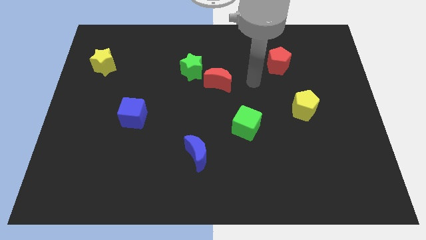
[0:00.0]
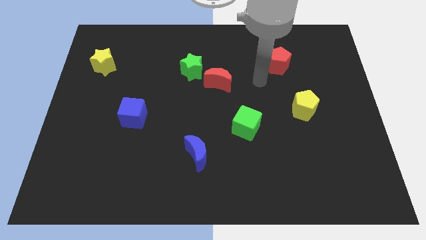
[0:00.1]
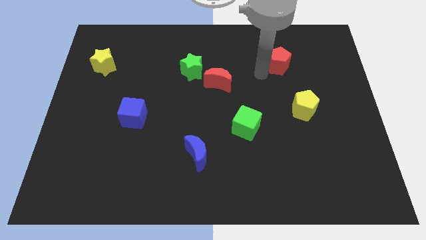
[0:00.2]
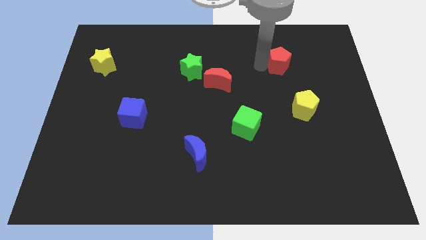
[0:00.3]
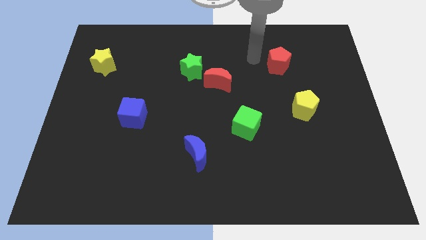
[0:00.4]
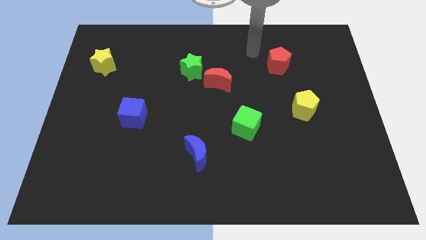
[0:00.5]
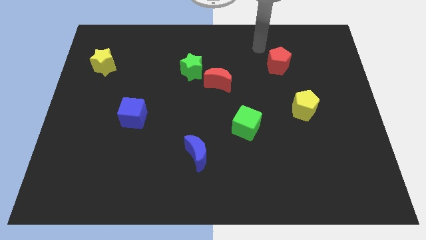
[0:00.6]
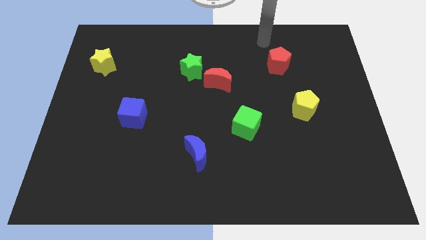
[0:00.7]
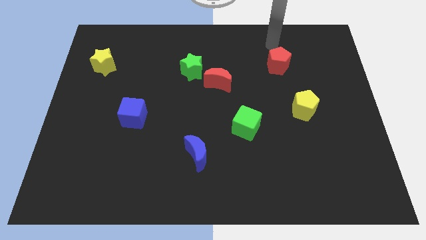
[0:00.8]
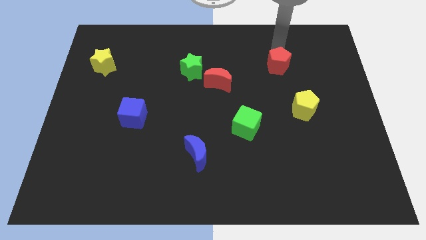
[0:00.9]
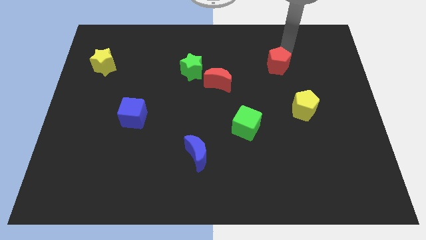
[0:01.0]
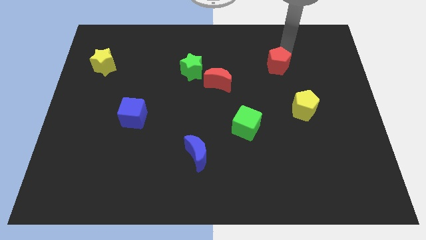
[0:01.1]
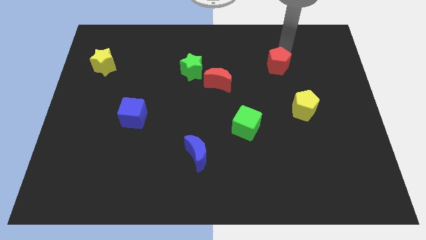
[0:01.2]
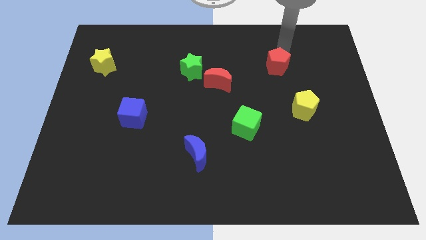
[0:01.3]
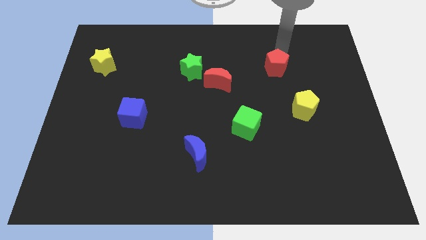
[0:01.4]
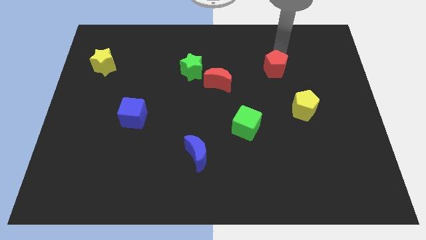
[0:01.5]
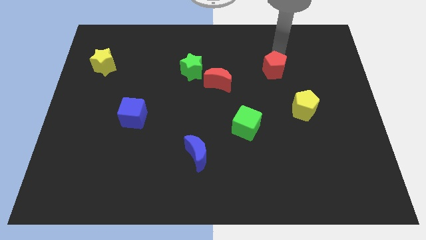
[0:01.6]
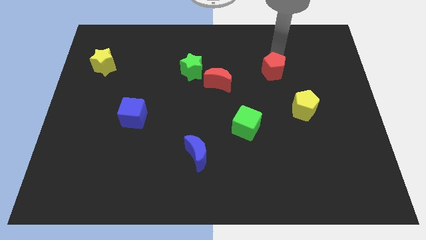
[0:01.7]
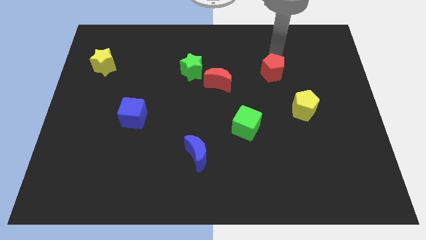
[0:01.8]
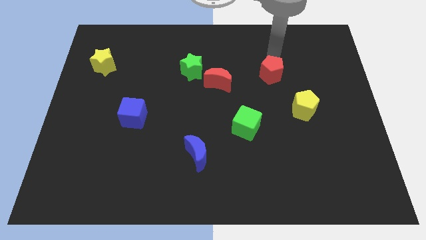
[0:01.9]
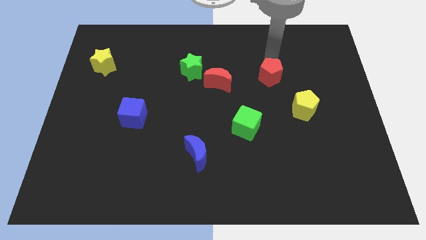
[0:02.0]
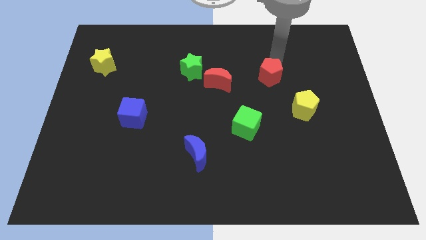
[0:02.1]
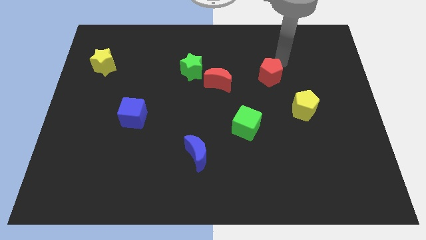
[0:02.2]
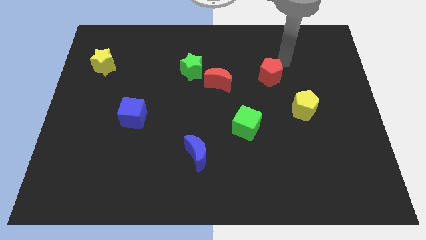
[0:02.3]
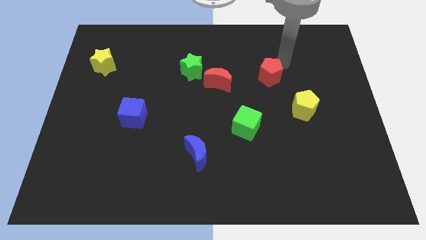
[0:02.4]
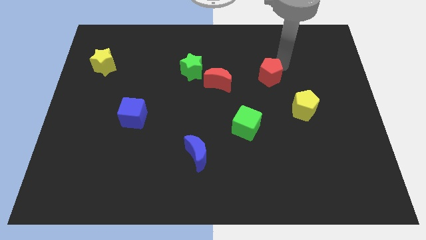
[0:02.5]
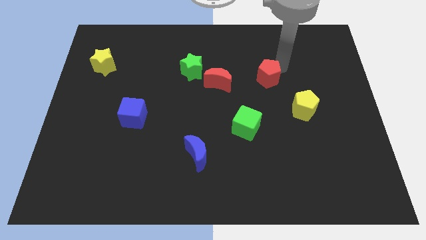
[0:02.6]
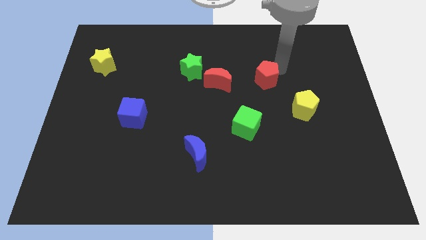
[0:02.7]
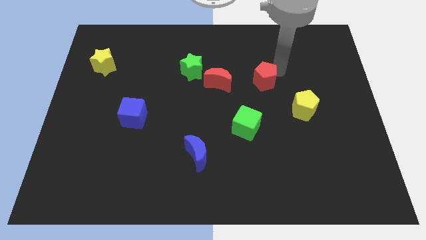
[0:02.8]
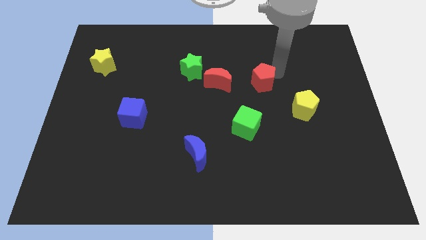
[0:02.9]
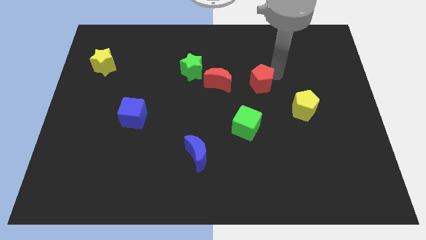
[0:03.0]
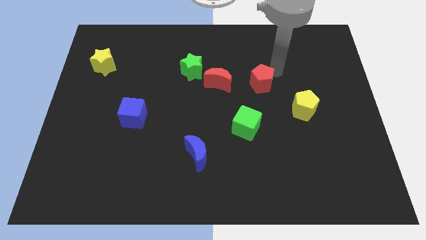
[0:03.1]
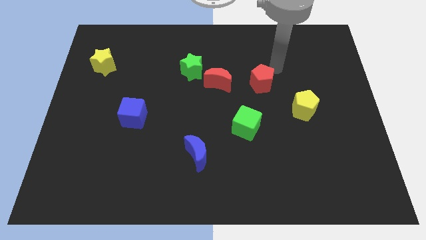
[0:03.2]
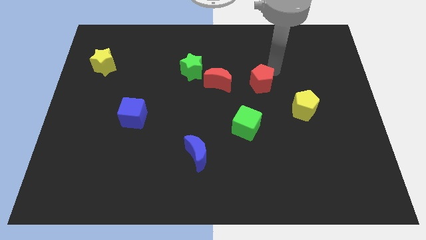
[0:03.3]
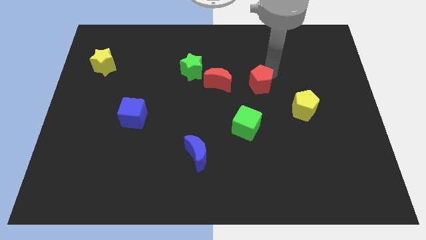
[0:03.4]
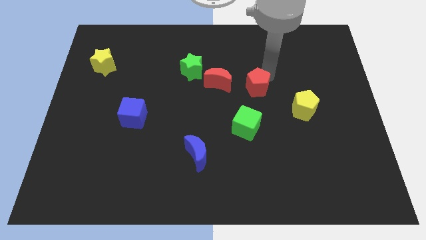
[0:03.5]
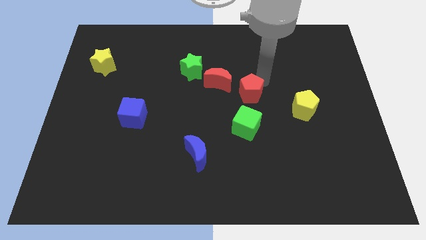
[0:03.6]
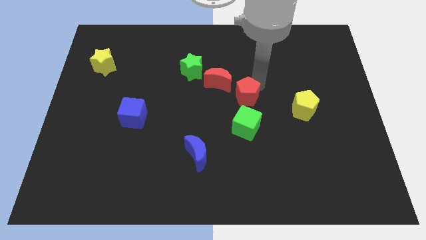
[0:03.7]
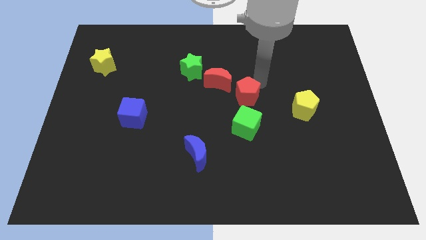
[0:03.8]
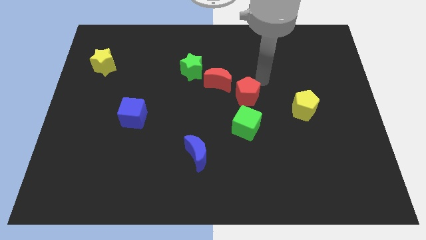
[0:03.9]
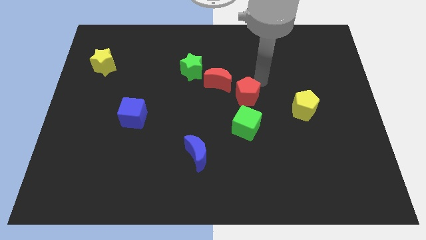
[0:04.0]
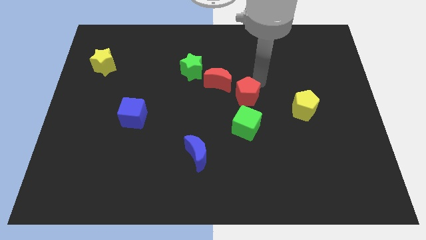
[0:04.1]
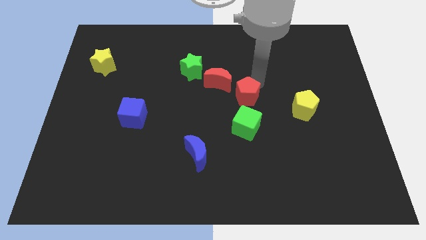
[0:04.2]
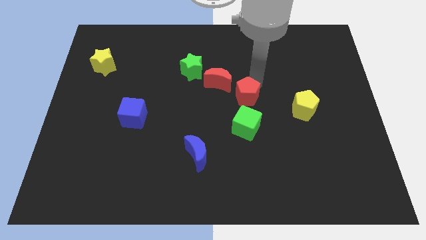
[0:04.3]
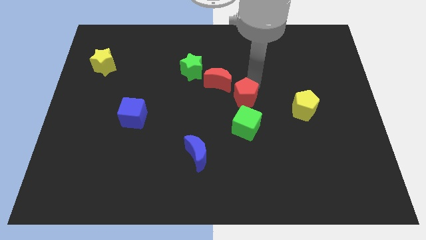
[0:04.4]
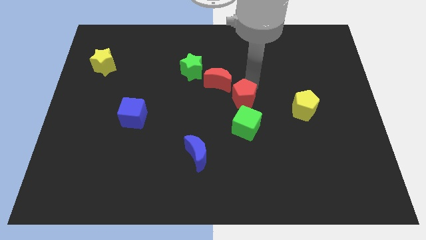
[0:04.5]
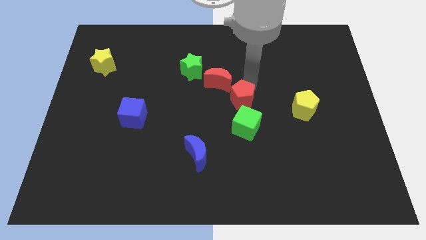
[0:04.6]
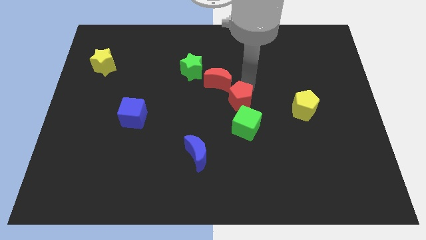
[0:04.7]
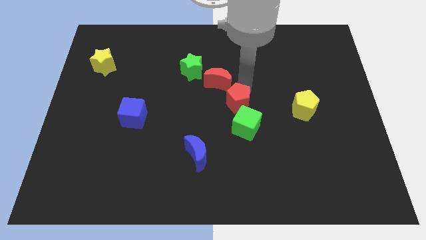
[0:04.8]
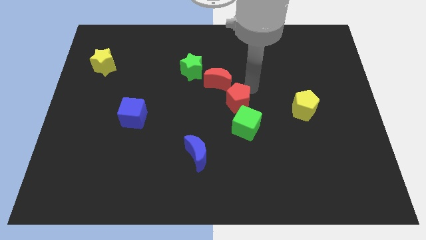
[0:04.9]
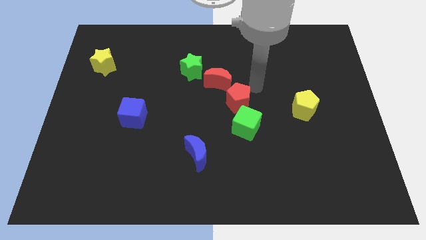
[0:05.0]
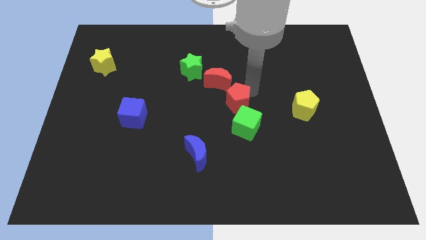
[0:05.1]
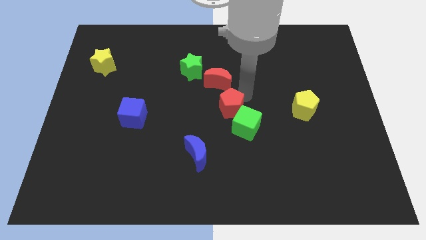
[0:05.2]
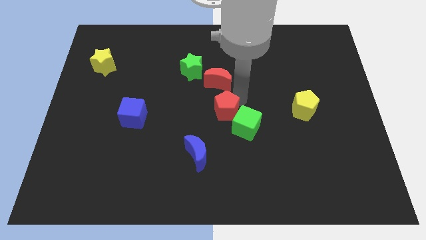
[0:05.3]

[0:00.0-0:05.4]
slide the red pentagon downwards and to the left

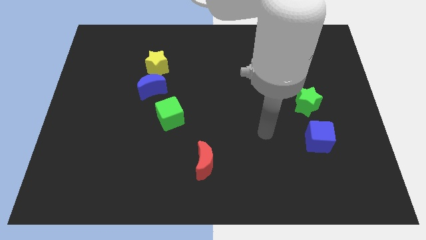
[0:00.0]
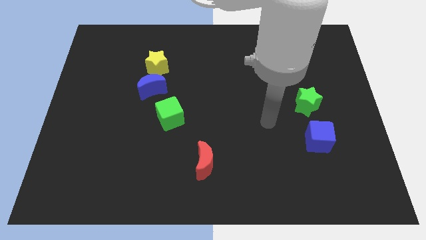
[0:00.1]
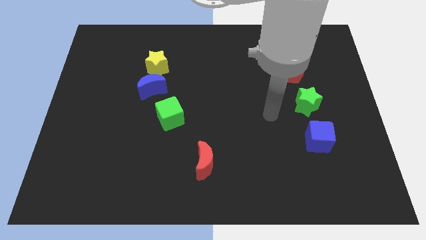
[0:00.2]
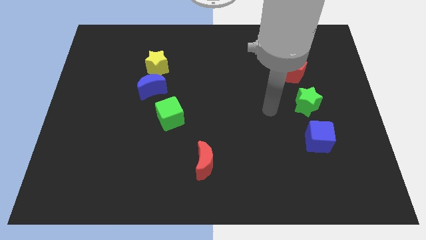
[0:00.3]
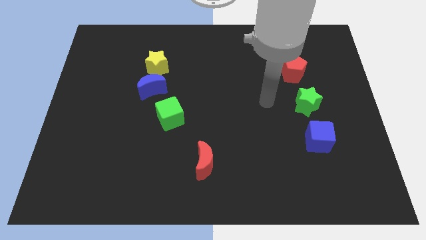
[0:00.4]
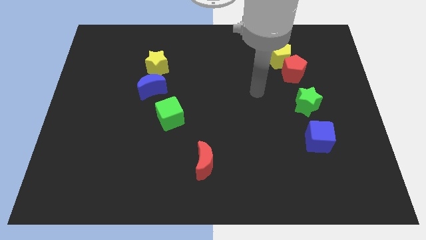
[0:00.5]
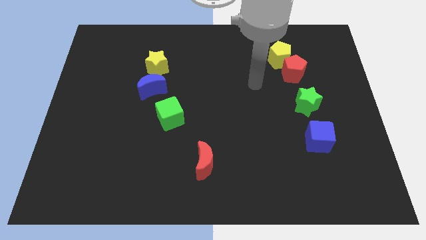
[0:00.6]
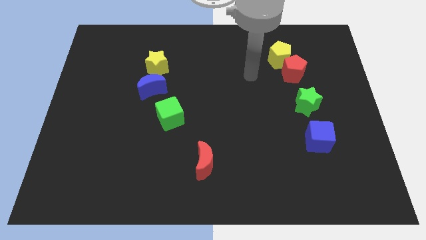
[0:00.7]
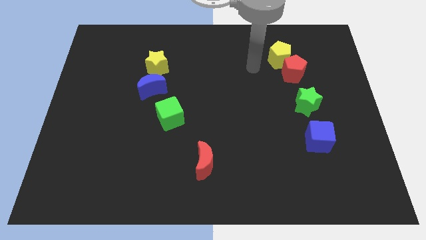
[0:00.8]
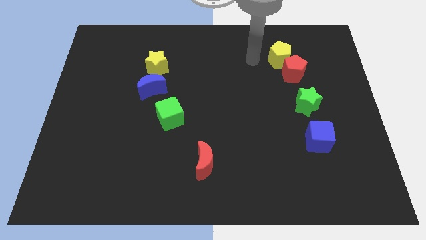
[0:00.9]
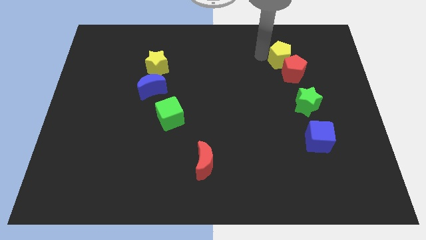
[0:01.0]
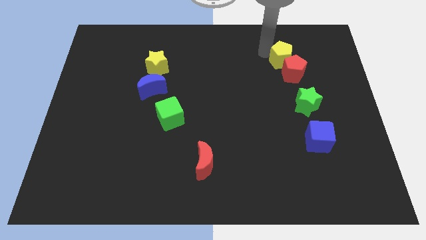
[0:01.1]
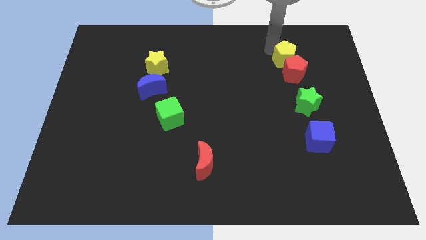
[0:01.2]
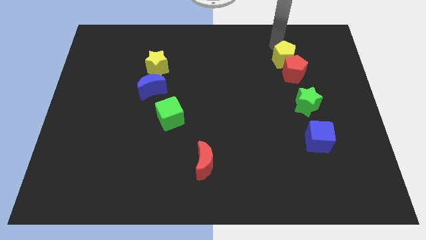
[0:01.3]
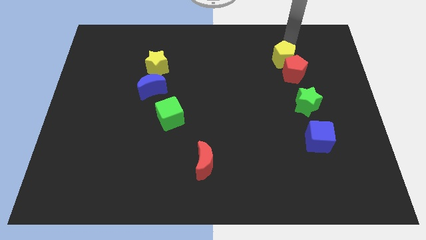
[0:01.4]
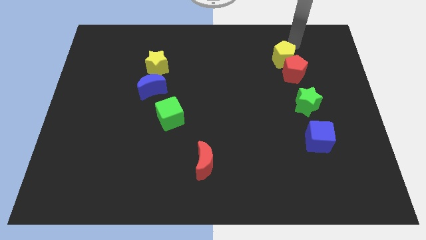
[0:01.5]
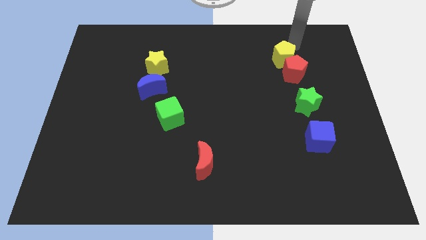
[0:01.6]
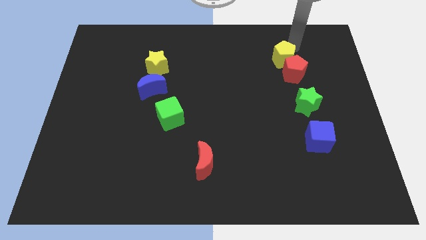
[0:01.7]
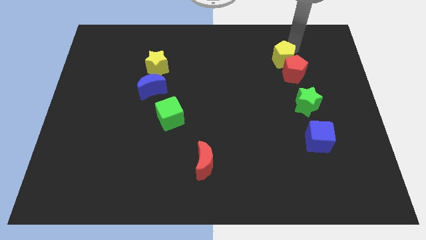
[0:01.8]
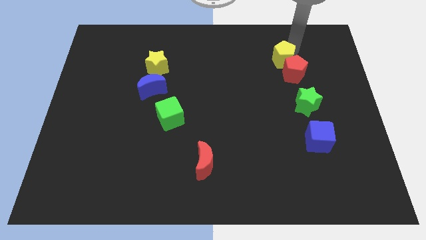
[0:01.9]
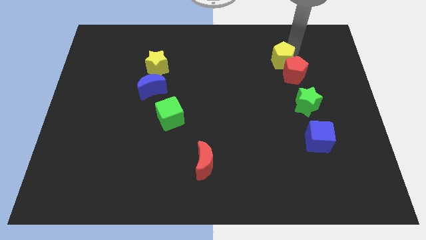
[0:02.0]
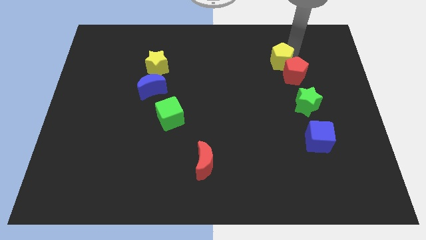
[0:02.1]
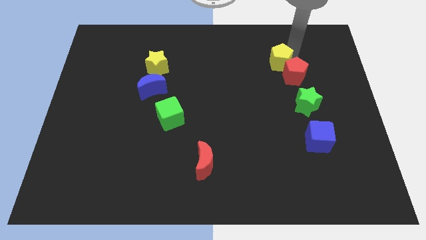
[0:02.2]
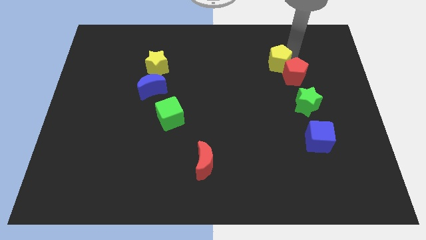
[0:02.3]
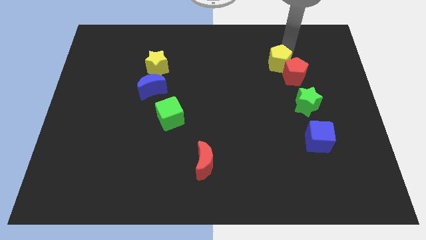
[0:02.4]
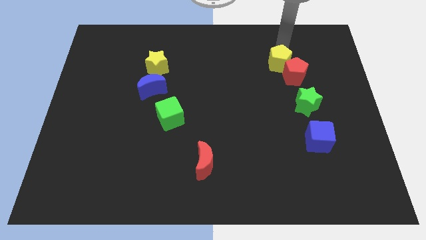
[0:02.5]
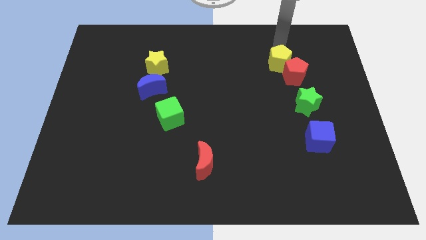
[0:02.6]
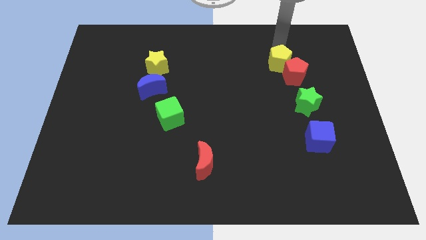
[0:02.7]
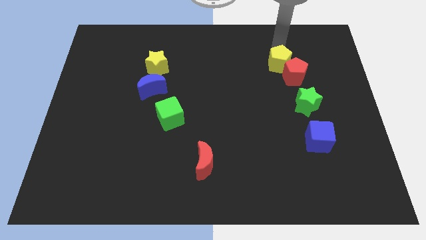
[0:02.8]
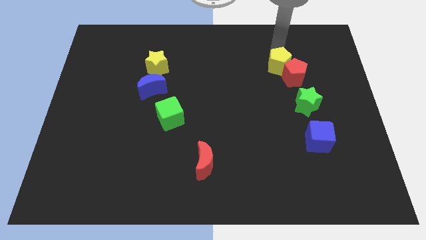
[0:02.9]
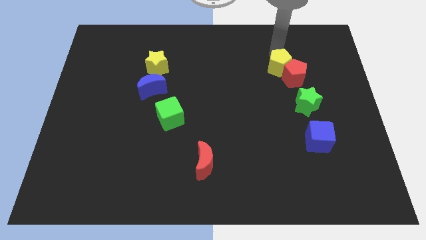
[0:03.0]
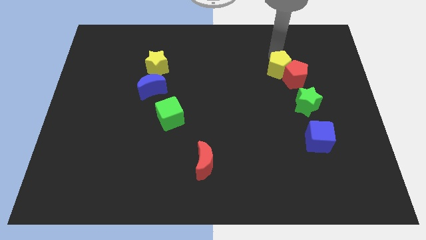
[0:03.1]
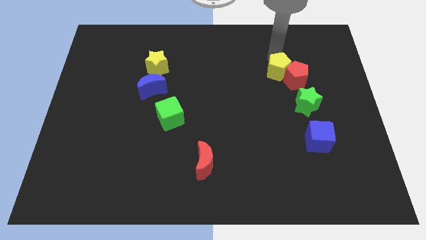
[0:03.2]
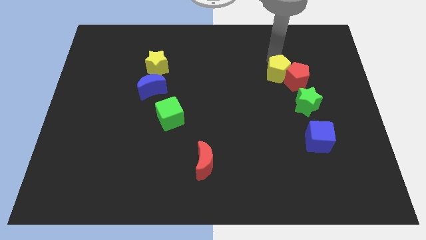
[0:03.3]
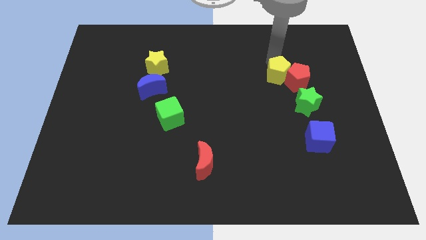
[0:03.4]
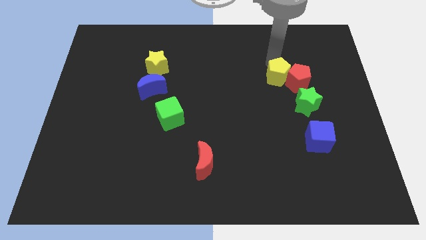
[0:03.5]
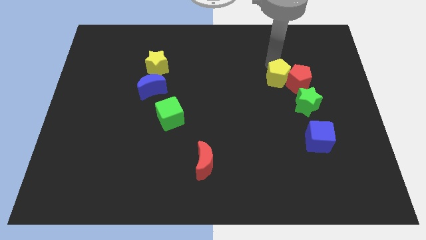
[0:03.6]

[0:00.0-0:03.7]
push the yellow pentagon down a little
